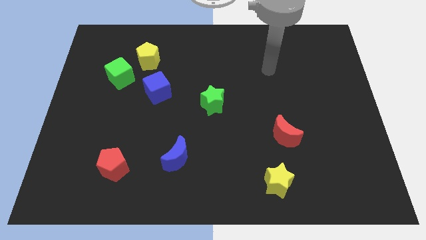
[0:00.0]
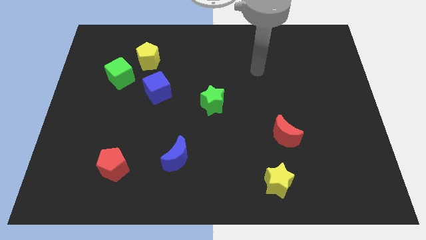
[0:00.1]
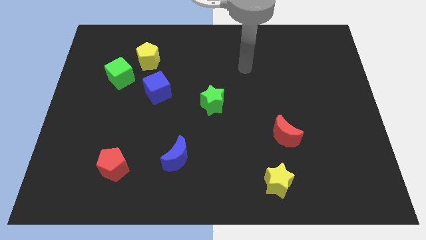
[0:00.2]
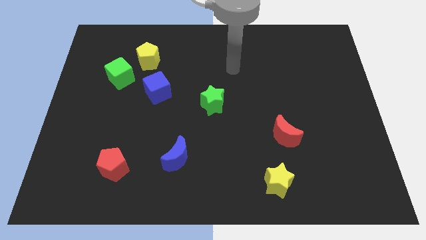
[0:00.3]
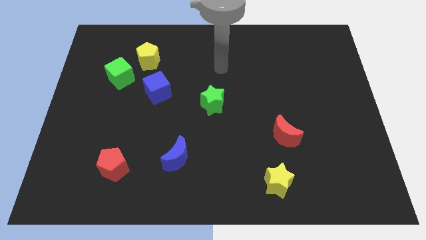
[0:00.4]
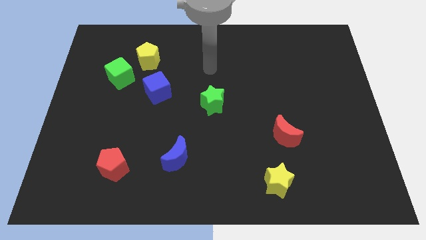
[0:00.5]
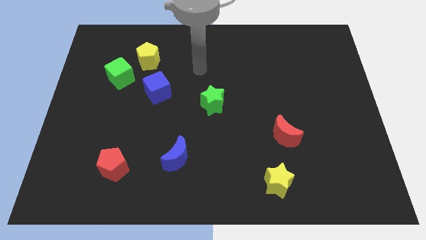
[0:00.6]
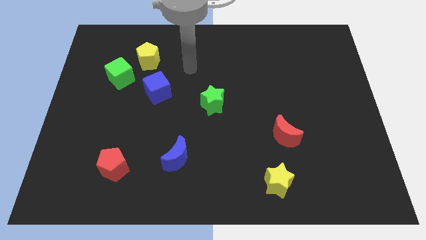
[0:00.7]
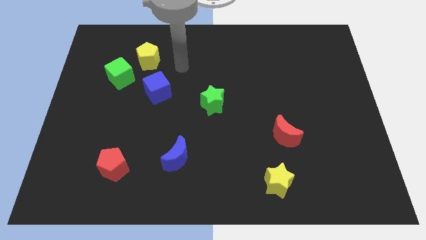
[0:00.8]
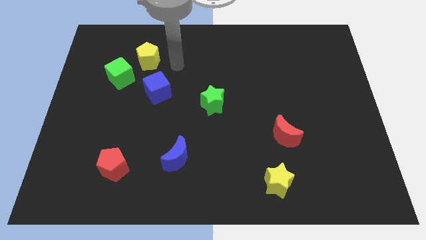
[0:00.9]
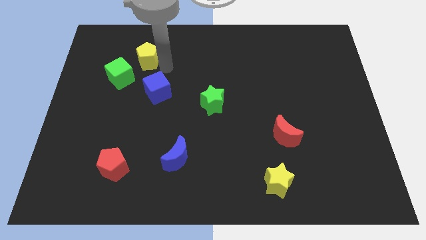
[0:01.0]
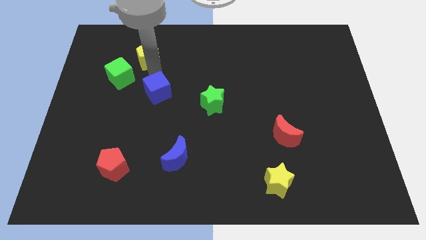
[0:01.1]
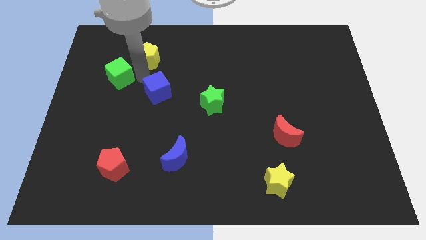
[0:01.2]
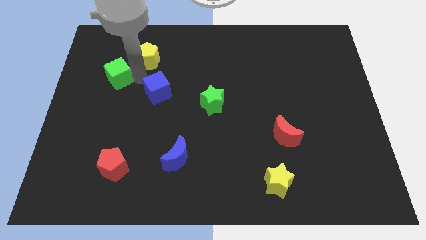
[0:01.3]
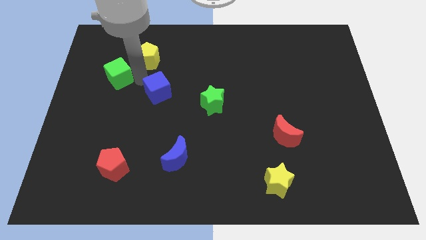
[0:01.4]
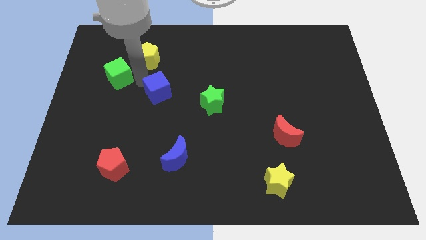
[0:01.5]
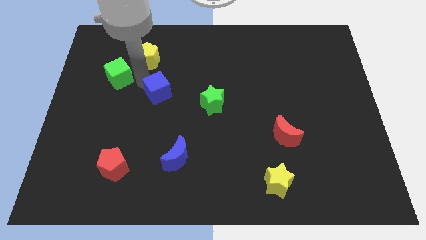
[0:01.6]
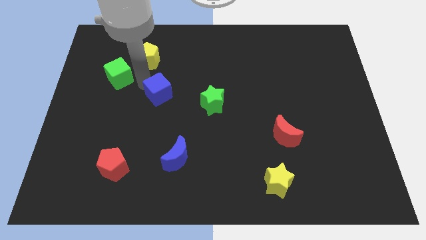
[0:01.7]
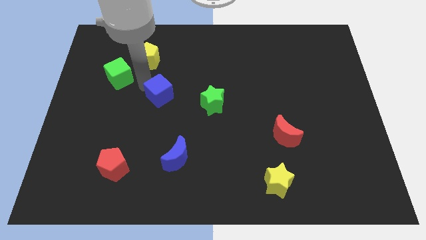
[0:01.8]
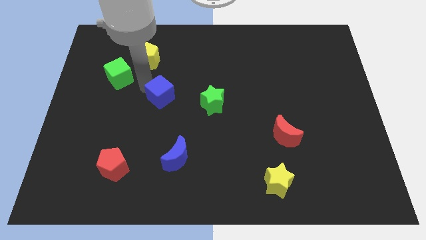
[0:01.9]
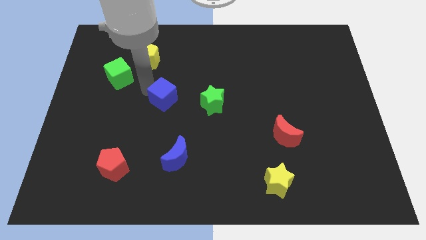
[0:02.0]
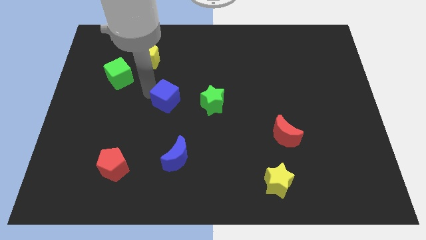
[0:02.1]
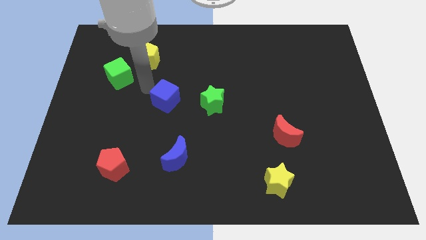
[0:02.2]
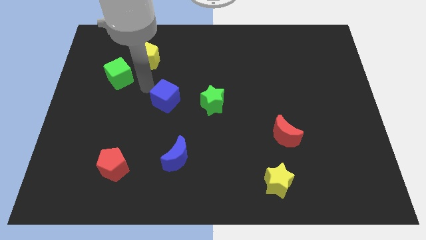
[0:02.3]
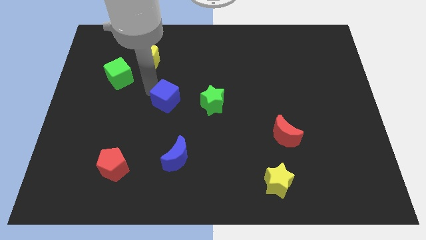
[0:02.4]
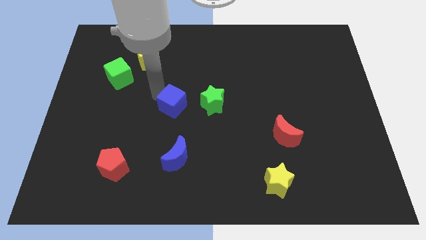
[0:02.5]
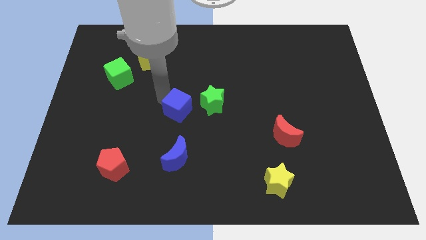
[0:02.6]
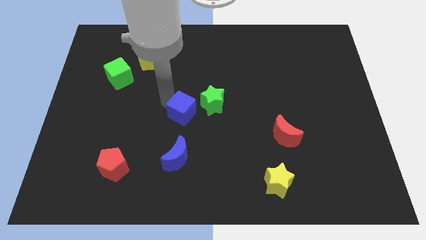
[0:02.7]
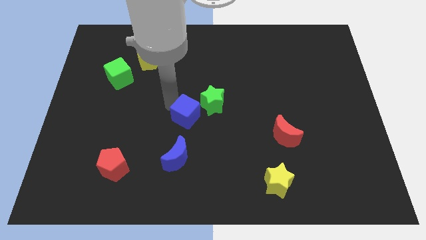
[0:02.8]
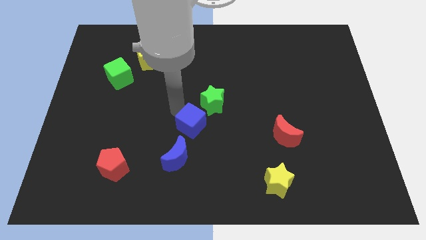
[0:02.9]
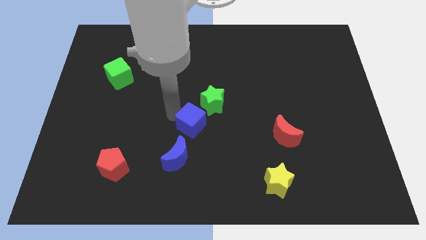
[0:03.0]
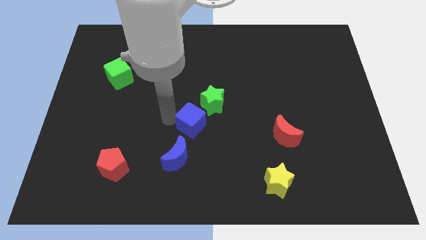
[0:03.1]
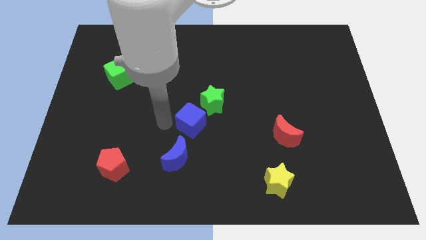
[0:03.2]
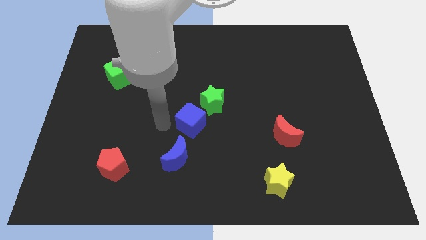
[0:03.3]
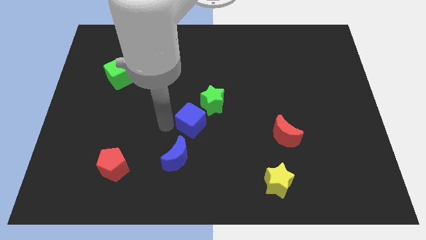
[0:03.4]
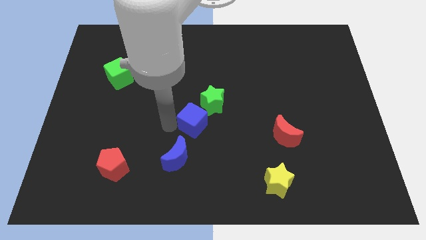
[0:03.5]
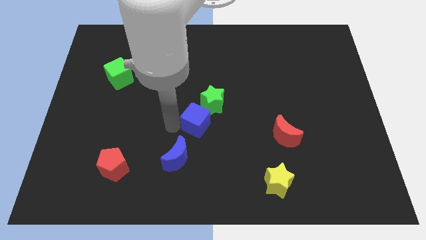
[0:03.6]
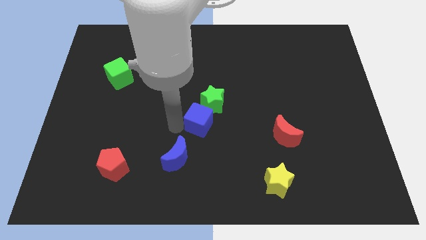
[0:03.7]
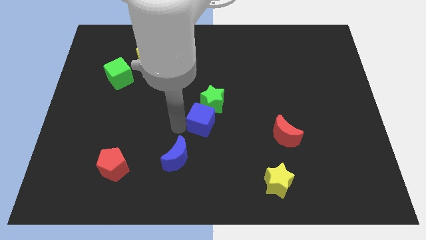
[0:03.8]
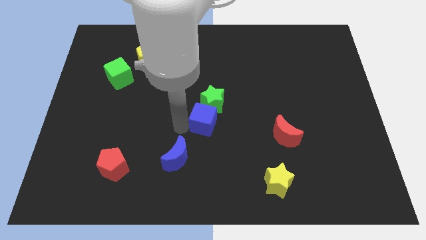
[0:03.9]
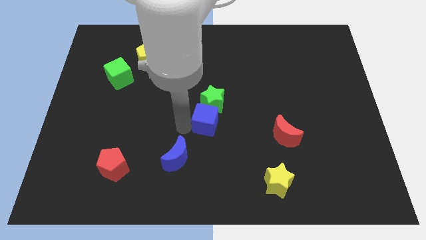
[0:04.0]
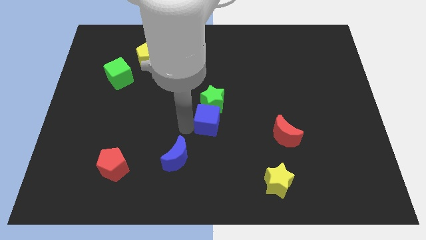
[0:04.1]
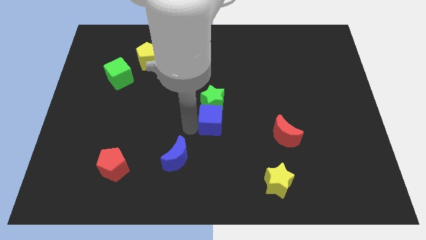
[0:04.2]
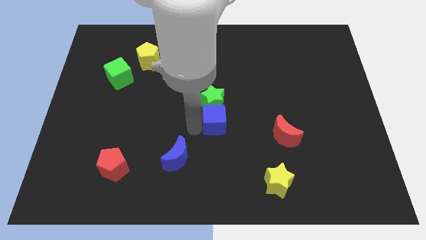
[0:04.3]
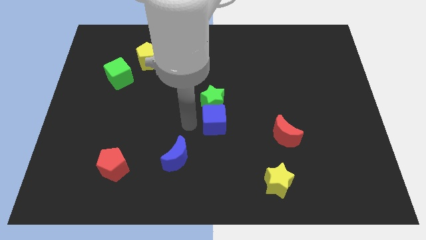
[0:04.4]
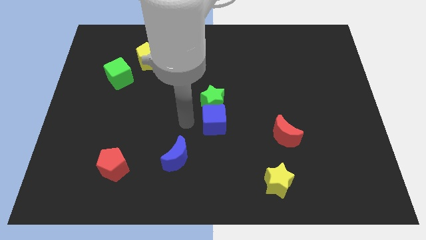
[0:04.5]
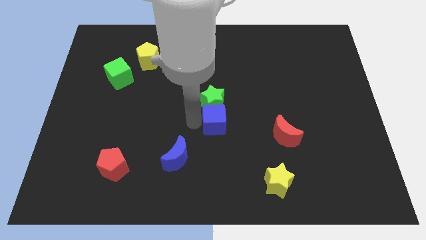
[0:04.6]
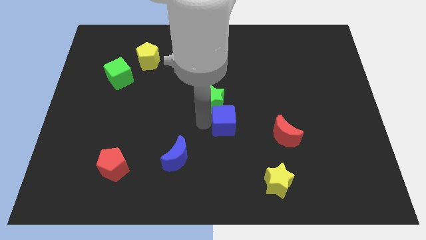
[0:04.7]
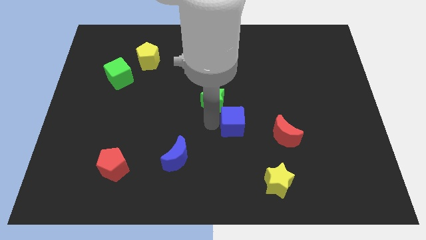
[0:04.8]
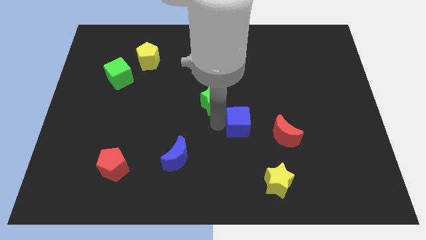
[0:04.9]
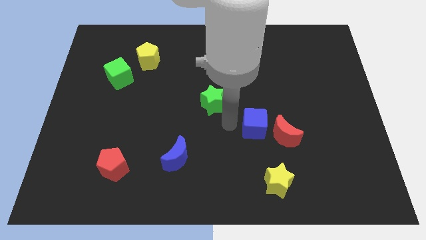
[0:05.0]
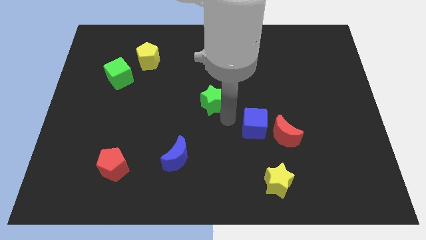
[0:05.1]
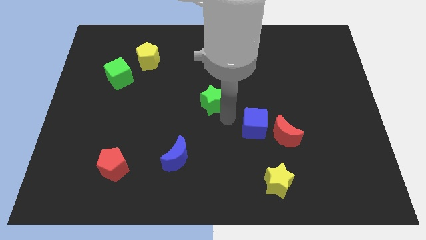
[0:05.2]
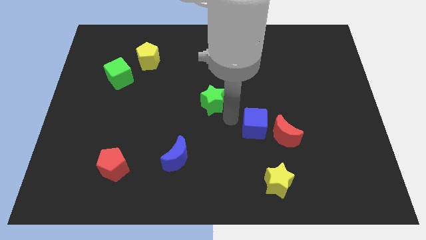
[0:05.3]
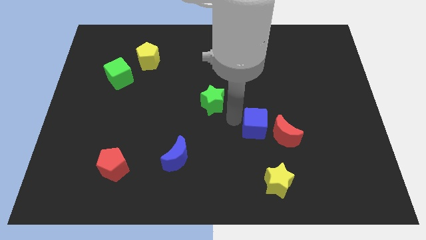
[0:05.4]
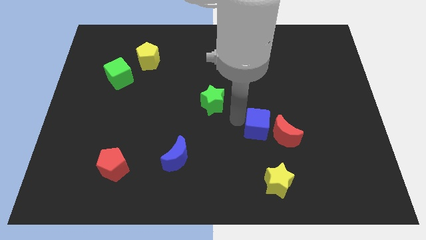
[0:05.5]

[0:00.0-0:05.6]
move the blue cube to the red moon

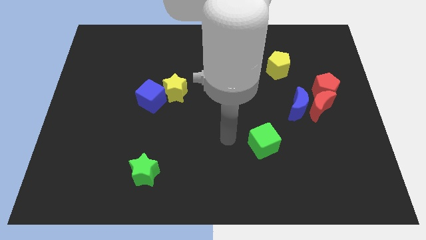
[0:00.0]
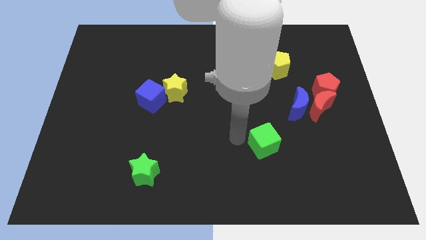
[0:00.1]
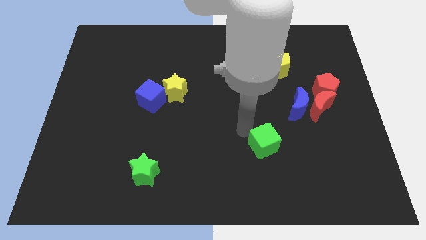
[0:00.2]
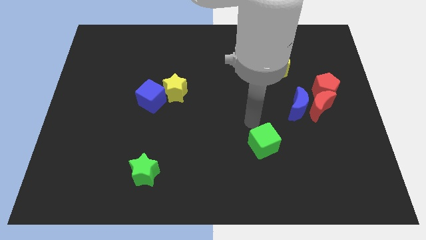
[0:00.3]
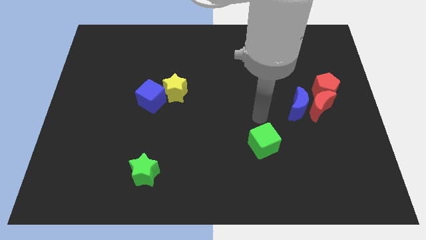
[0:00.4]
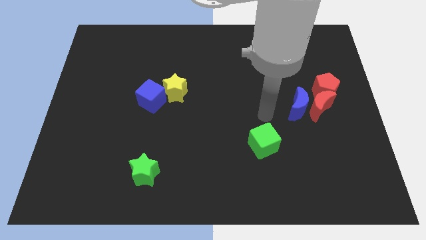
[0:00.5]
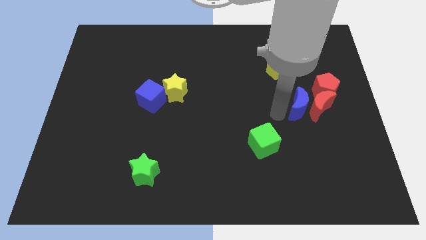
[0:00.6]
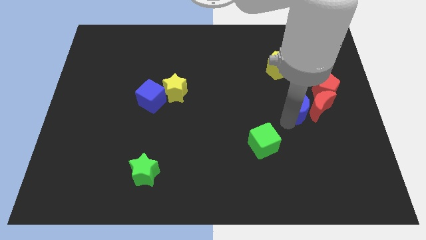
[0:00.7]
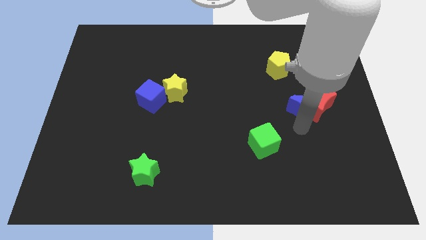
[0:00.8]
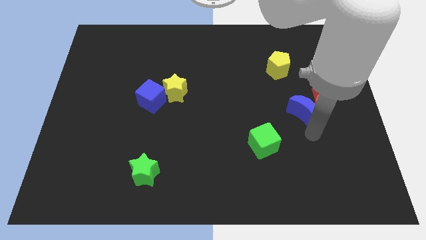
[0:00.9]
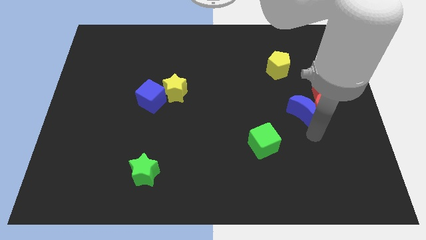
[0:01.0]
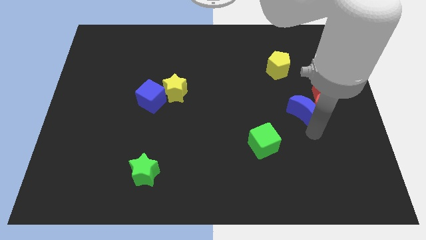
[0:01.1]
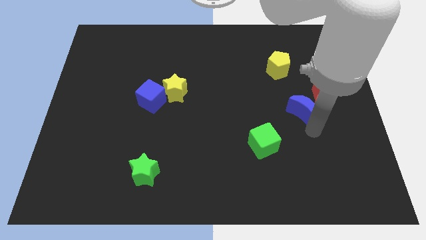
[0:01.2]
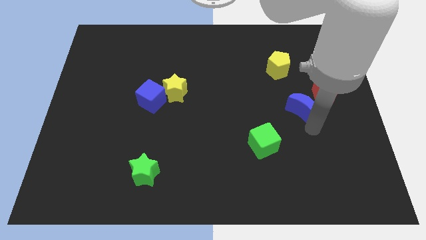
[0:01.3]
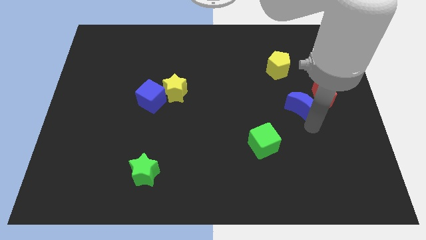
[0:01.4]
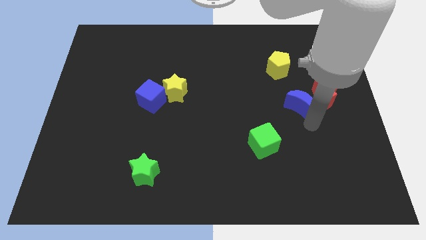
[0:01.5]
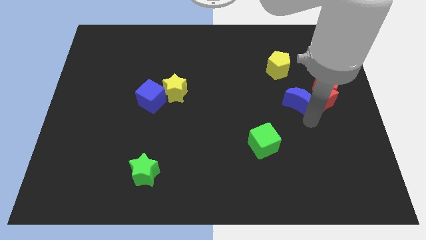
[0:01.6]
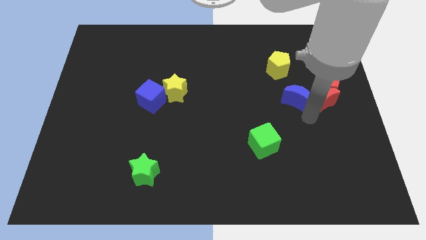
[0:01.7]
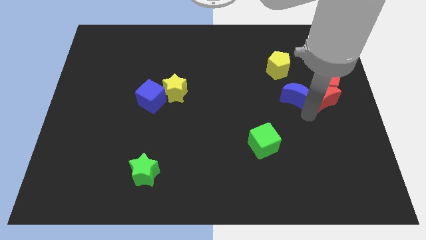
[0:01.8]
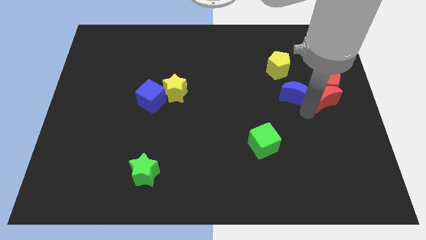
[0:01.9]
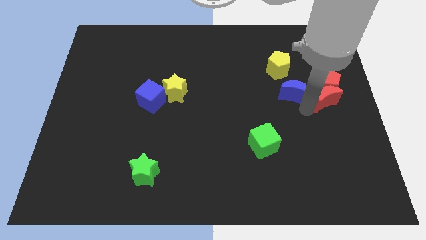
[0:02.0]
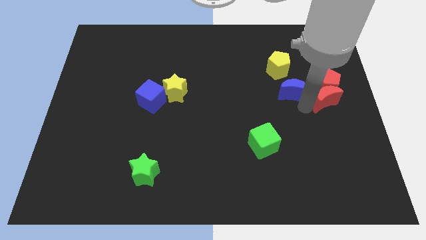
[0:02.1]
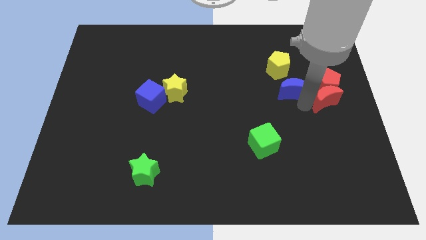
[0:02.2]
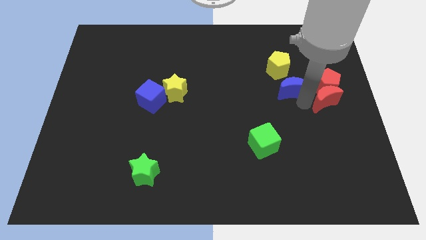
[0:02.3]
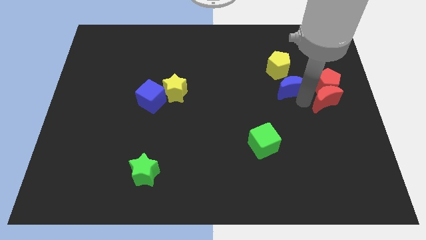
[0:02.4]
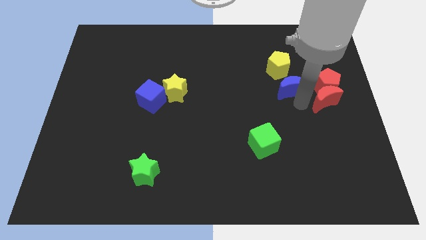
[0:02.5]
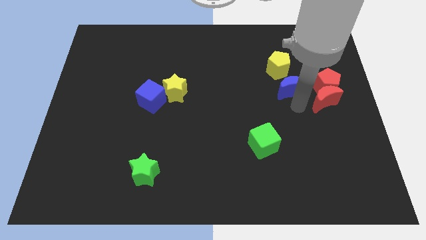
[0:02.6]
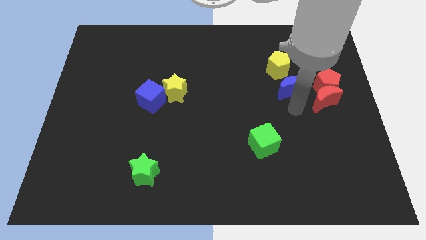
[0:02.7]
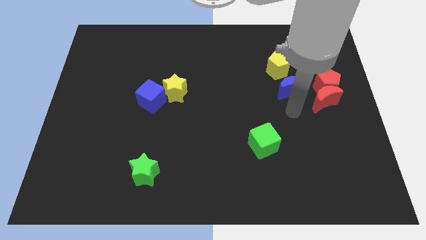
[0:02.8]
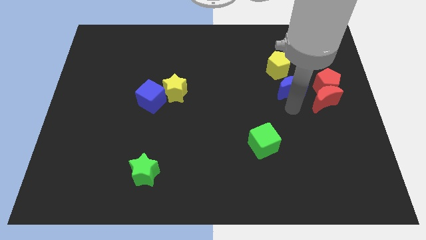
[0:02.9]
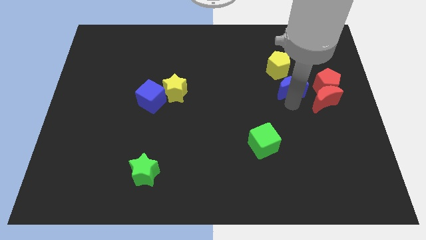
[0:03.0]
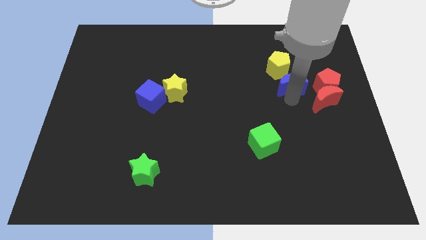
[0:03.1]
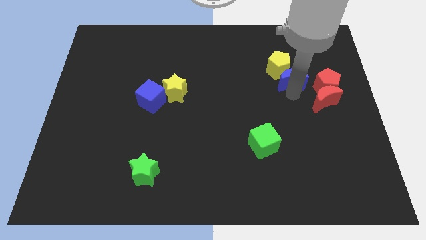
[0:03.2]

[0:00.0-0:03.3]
put the blue moon to the yellow pentagon
